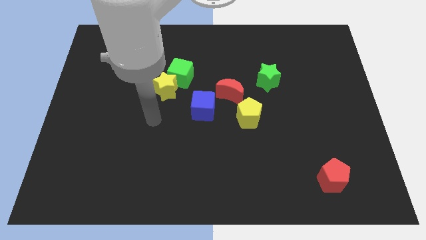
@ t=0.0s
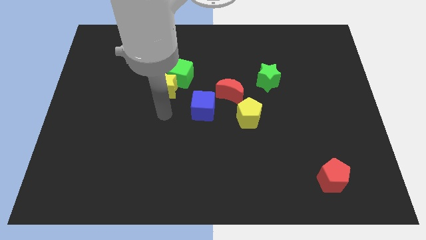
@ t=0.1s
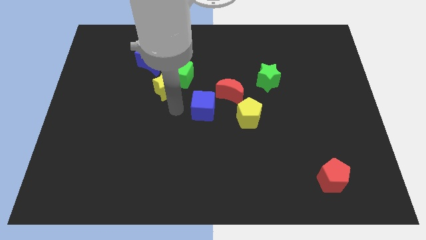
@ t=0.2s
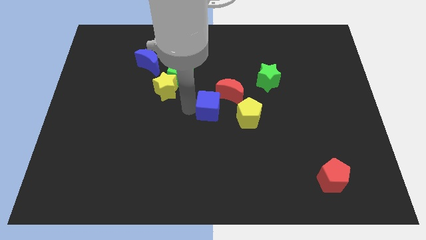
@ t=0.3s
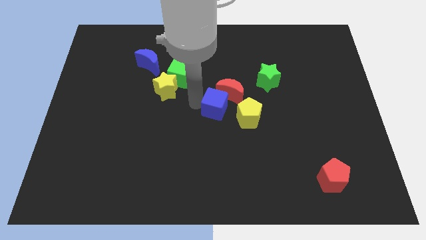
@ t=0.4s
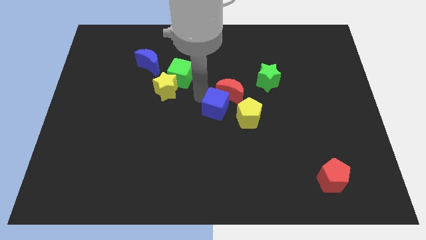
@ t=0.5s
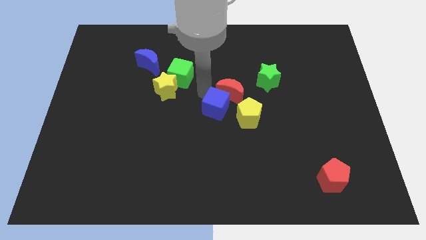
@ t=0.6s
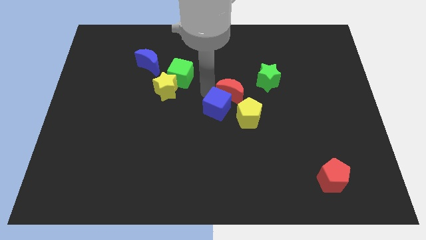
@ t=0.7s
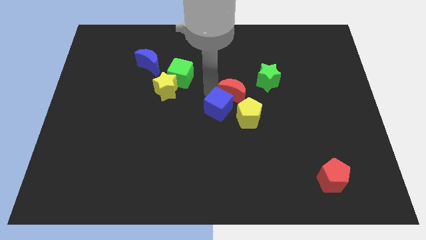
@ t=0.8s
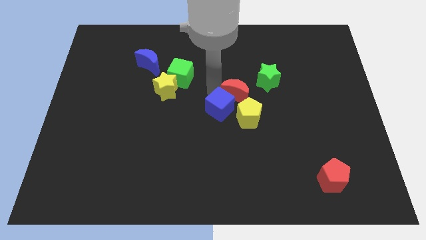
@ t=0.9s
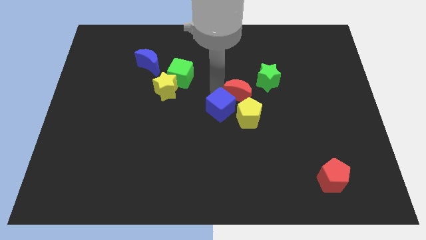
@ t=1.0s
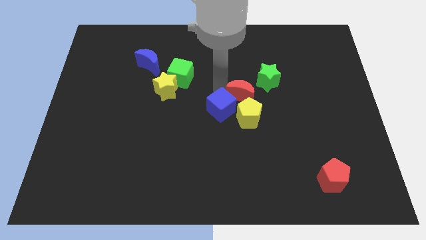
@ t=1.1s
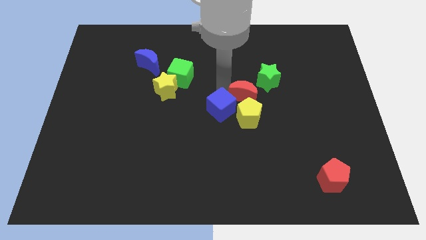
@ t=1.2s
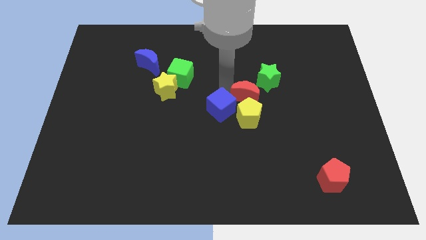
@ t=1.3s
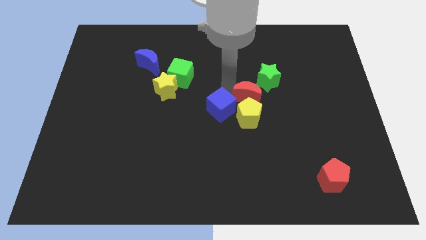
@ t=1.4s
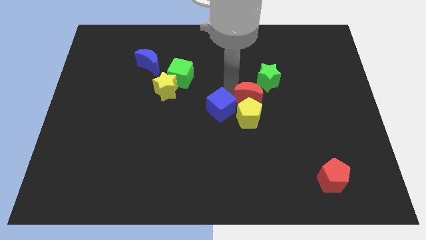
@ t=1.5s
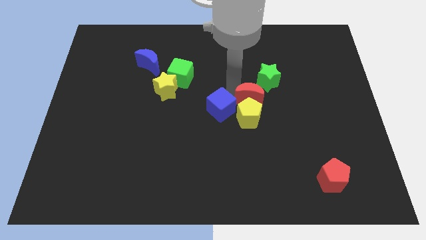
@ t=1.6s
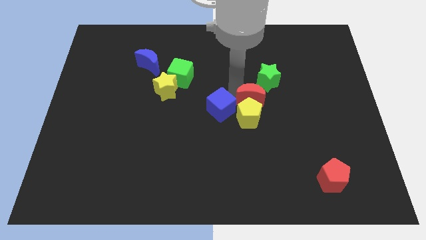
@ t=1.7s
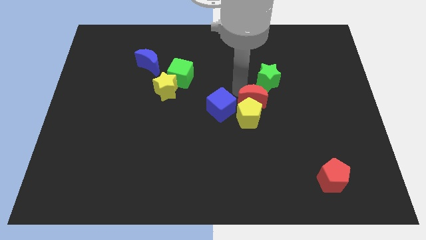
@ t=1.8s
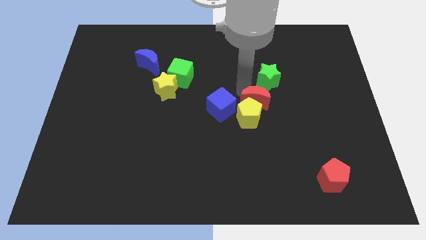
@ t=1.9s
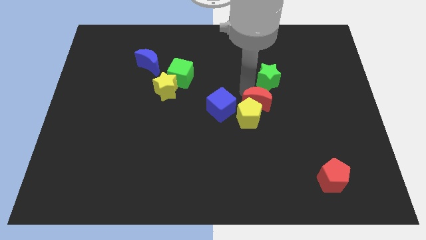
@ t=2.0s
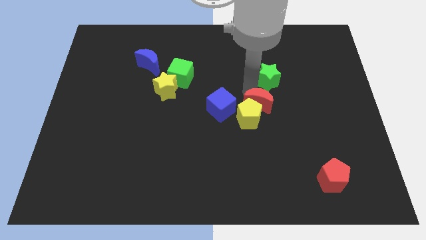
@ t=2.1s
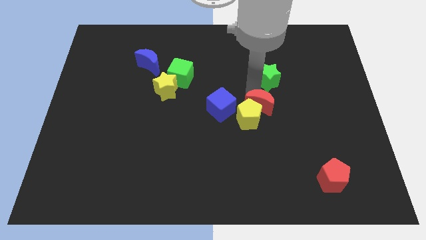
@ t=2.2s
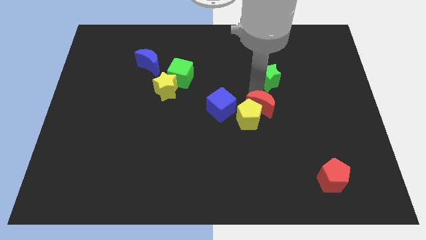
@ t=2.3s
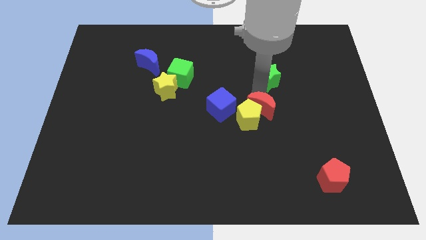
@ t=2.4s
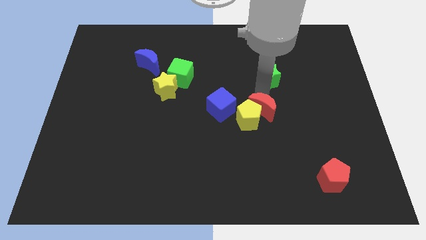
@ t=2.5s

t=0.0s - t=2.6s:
move the red moon slightly to the right

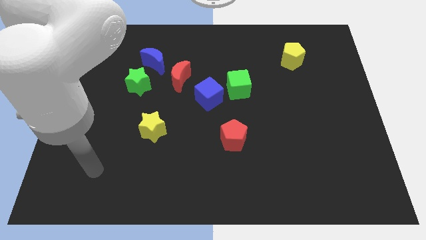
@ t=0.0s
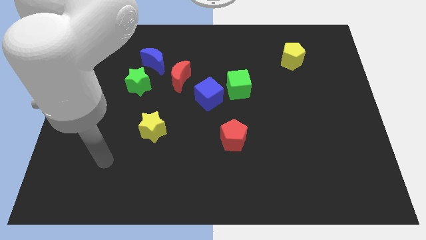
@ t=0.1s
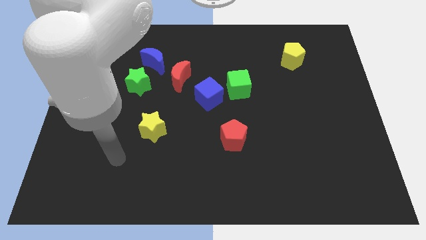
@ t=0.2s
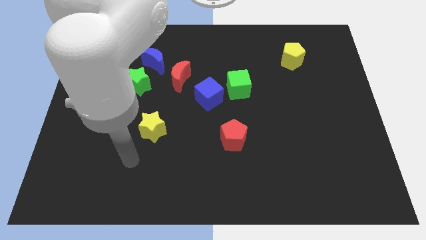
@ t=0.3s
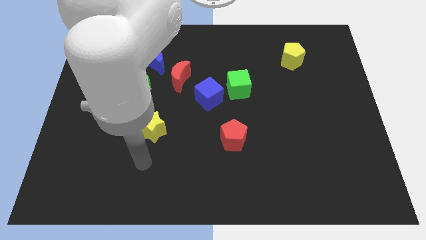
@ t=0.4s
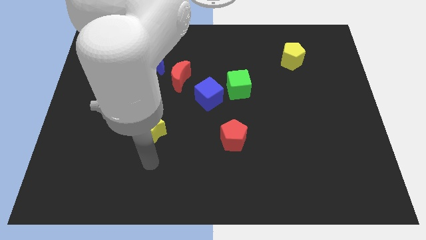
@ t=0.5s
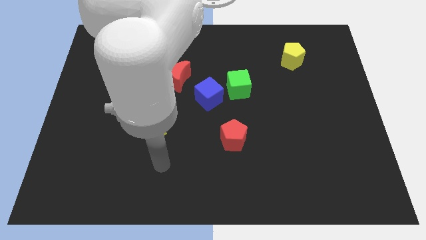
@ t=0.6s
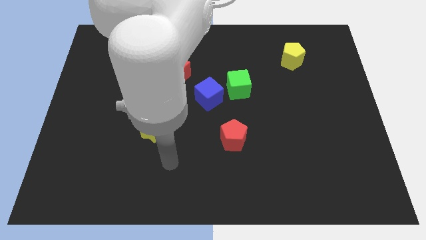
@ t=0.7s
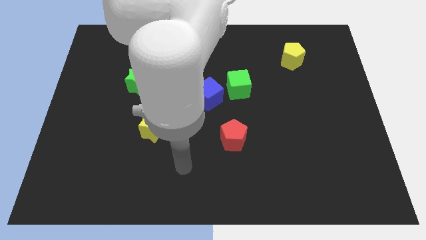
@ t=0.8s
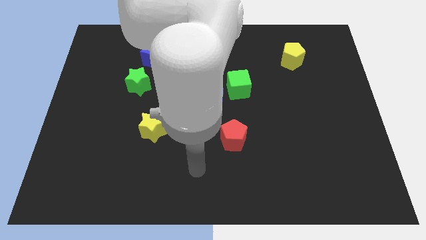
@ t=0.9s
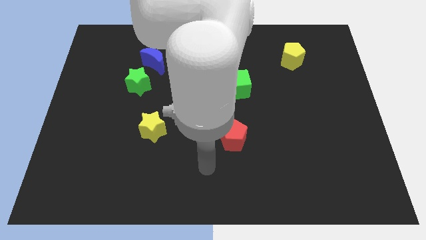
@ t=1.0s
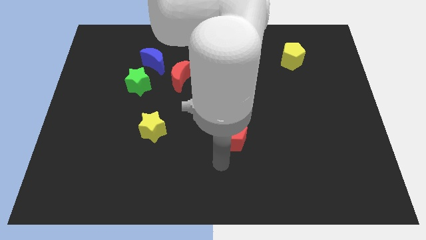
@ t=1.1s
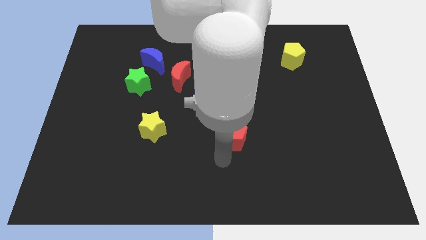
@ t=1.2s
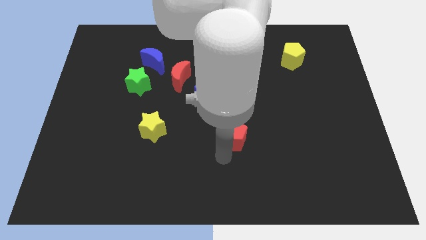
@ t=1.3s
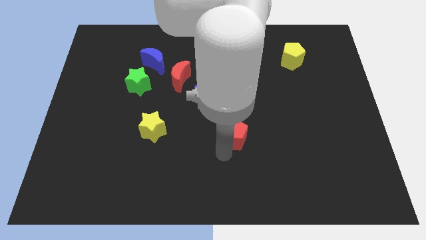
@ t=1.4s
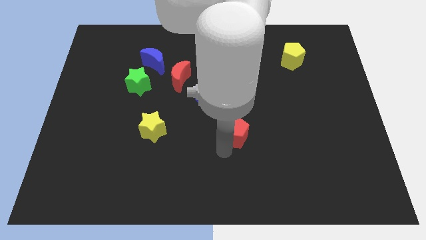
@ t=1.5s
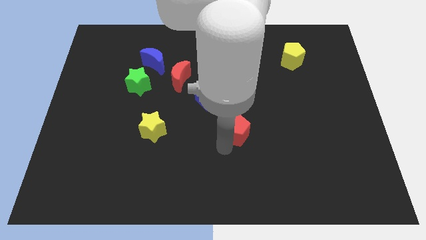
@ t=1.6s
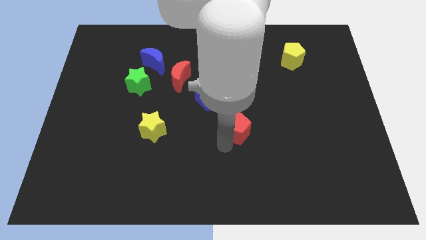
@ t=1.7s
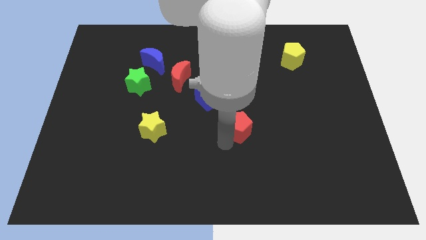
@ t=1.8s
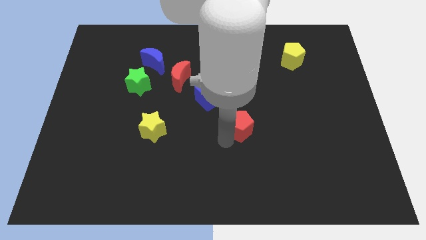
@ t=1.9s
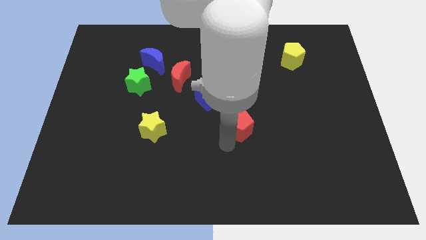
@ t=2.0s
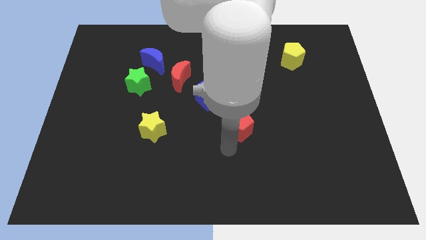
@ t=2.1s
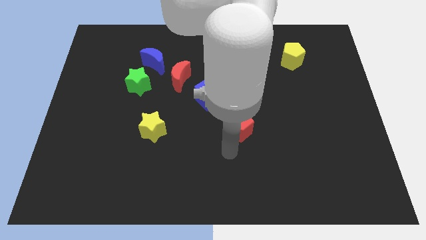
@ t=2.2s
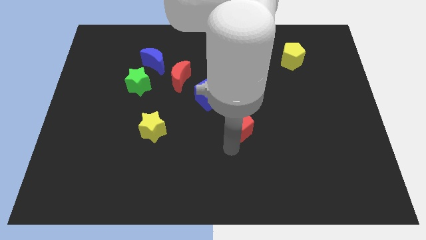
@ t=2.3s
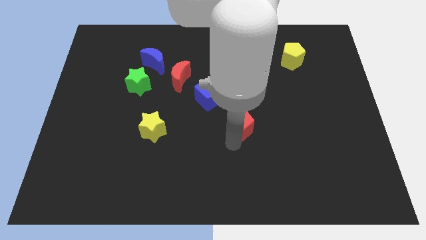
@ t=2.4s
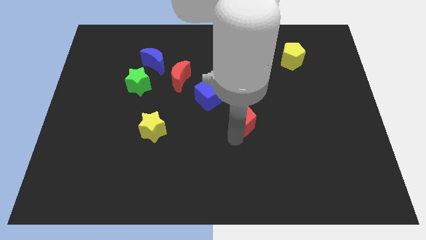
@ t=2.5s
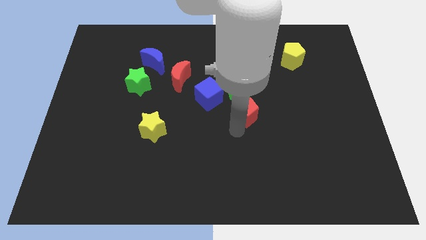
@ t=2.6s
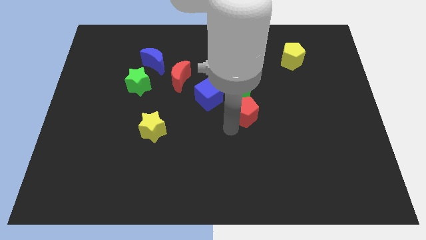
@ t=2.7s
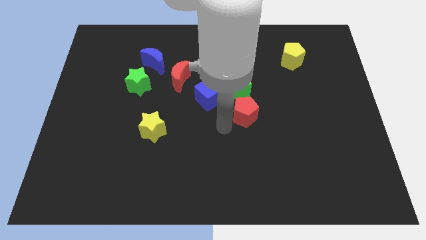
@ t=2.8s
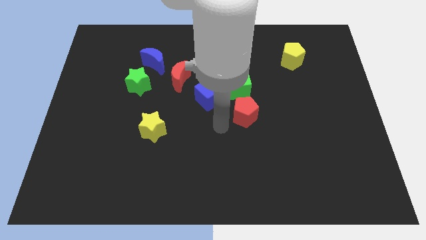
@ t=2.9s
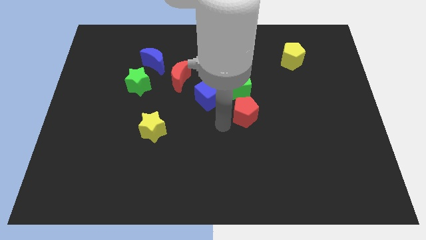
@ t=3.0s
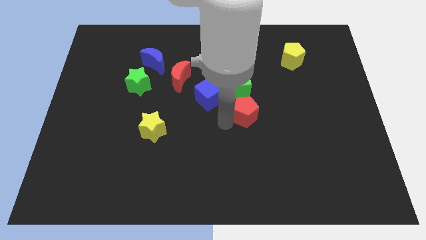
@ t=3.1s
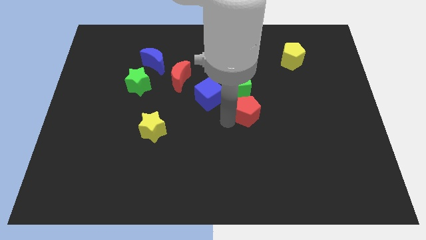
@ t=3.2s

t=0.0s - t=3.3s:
push the red pentagon a bit upwards and to the right

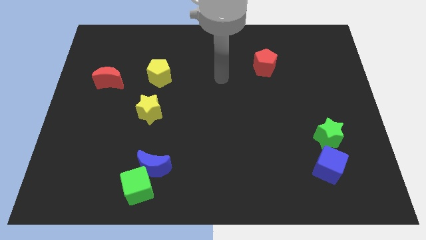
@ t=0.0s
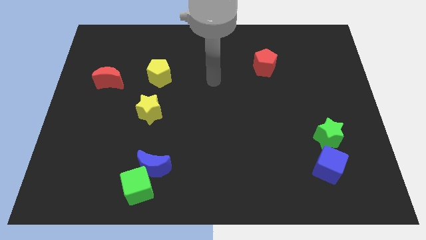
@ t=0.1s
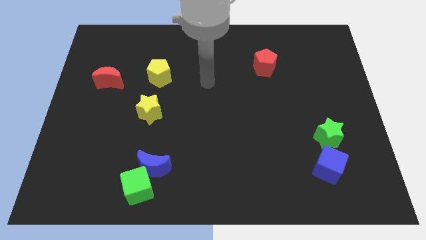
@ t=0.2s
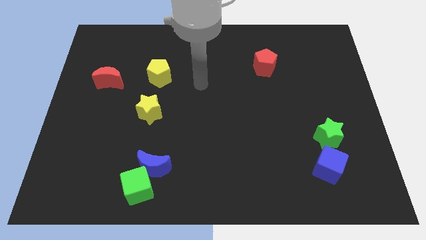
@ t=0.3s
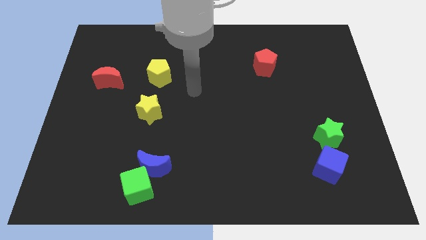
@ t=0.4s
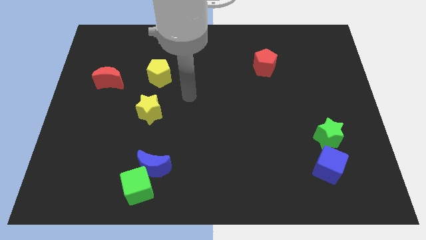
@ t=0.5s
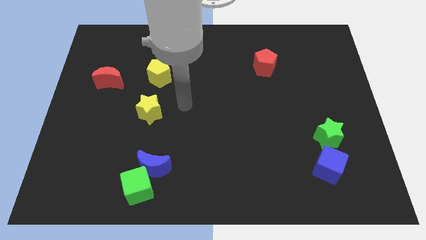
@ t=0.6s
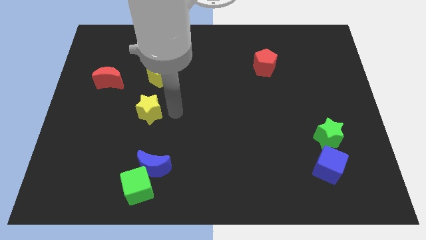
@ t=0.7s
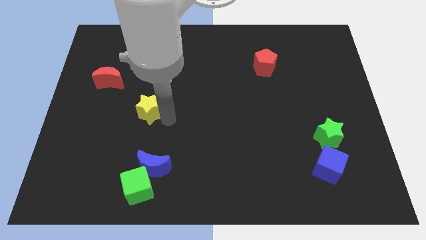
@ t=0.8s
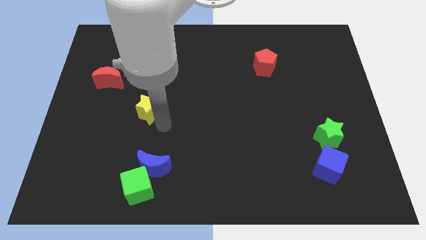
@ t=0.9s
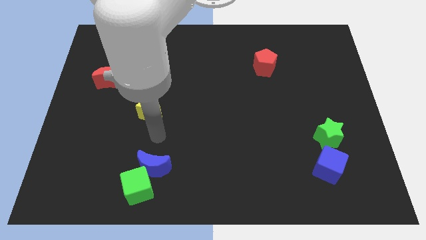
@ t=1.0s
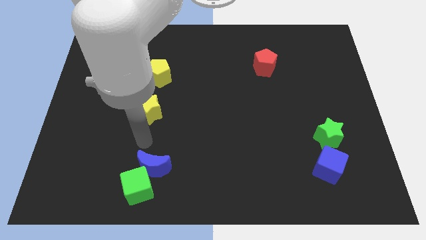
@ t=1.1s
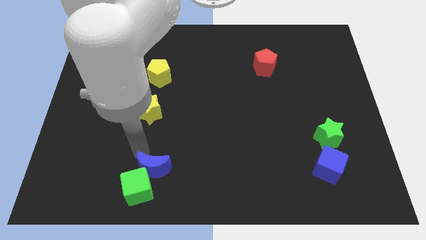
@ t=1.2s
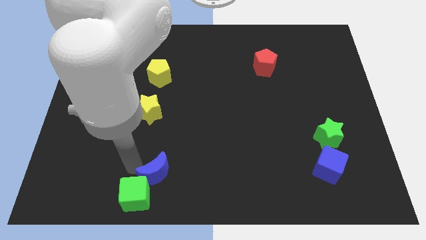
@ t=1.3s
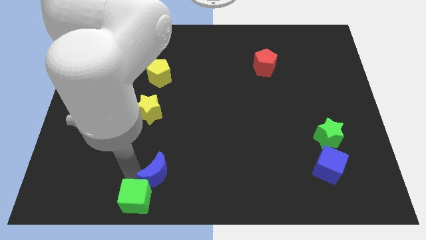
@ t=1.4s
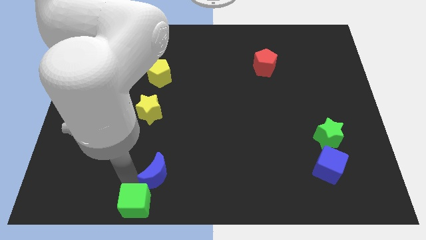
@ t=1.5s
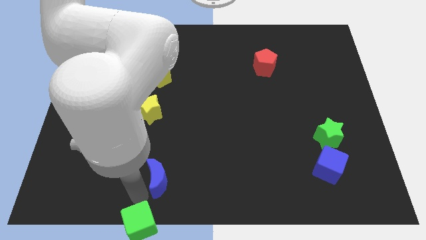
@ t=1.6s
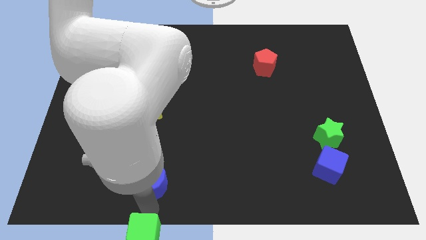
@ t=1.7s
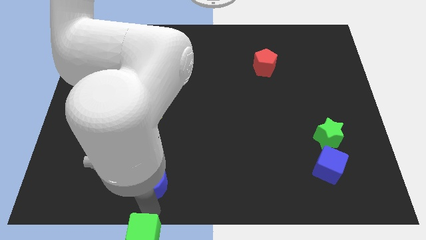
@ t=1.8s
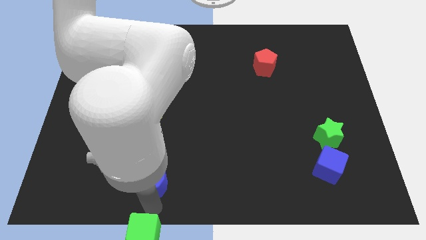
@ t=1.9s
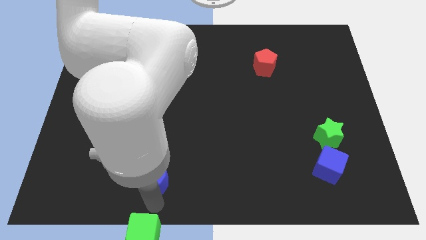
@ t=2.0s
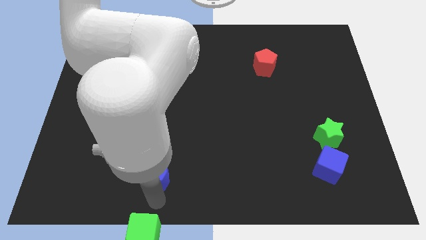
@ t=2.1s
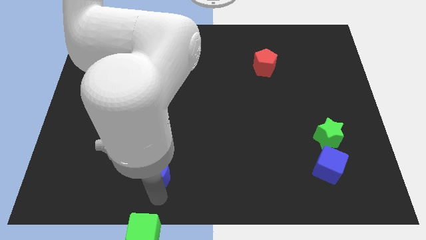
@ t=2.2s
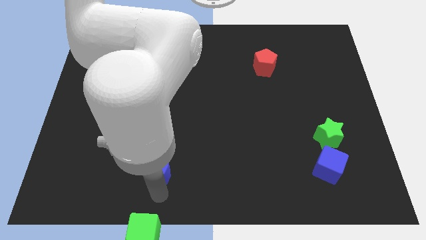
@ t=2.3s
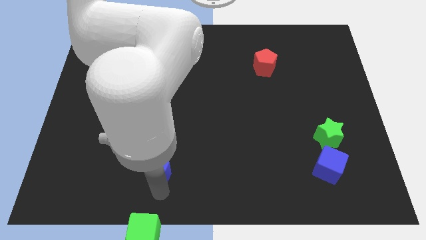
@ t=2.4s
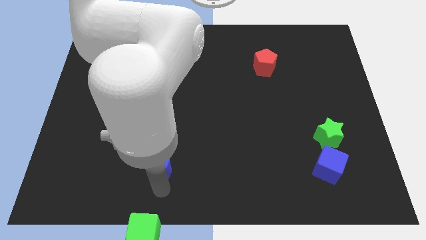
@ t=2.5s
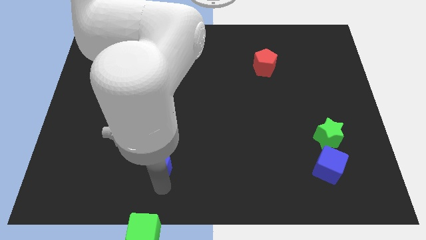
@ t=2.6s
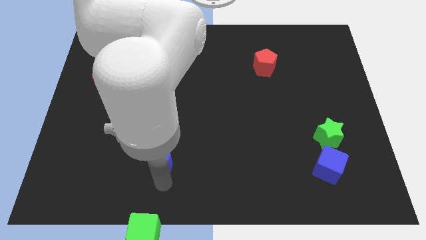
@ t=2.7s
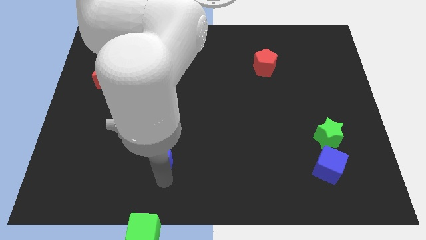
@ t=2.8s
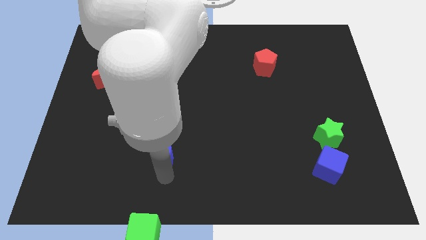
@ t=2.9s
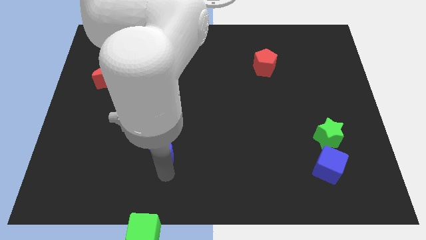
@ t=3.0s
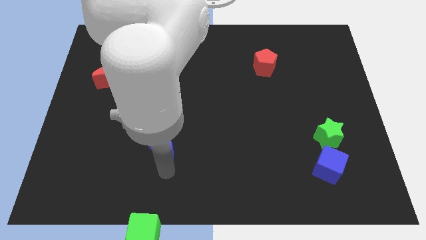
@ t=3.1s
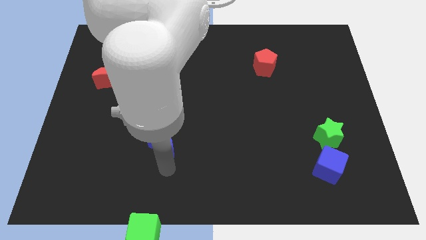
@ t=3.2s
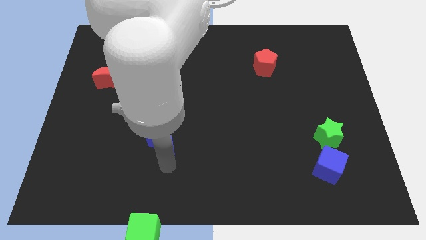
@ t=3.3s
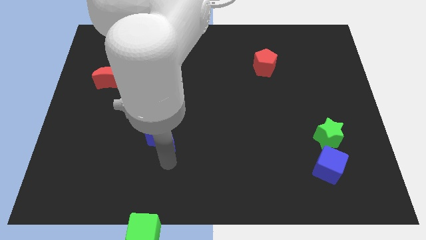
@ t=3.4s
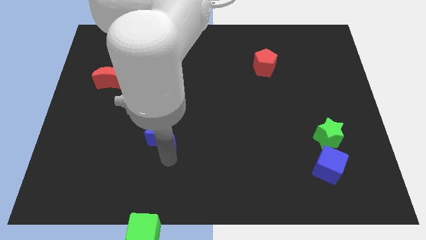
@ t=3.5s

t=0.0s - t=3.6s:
push the blue moon a bit up
